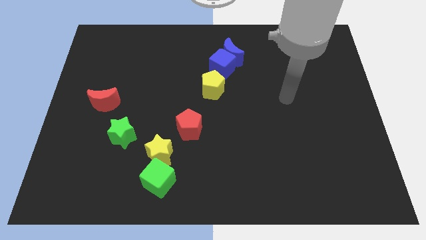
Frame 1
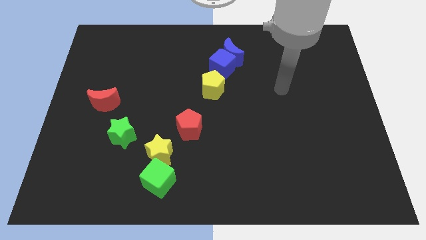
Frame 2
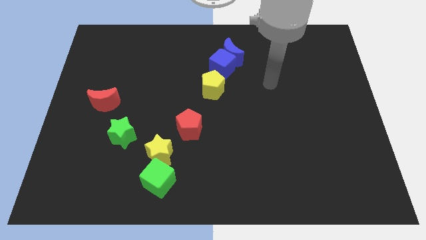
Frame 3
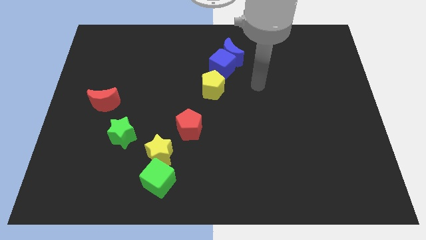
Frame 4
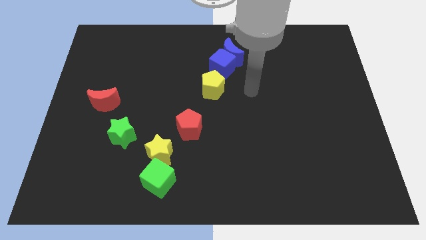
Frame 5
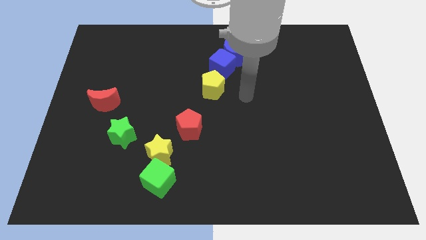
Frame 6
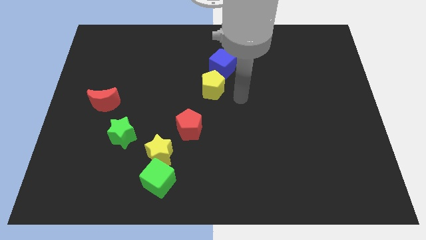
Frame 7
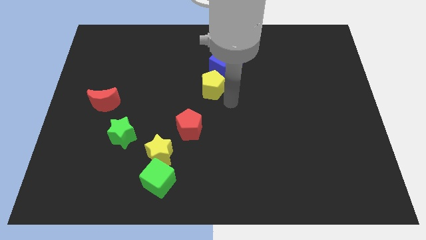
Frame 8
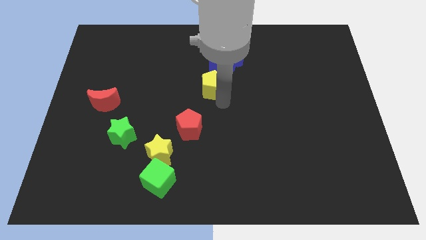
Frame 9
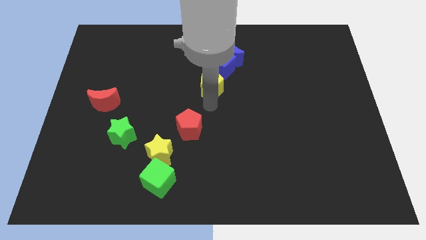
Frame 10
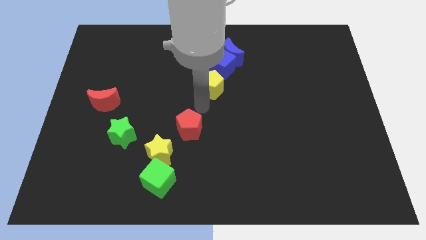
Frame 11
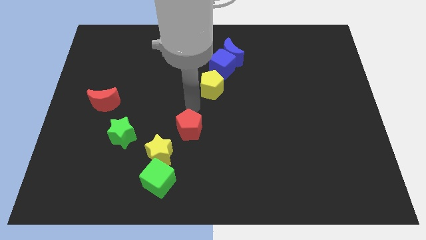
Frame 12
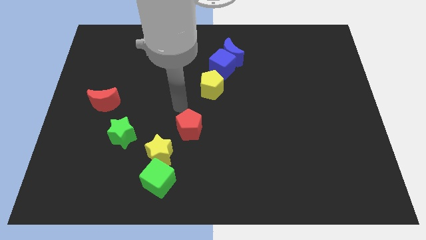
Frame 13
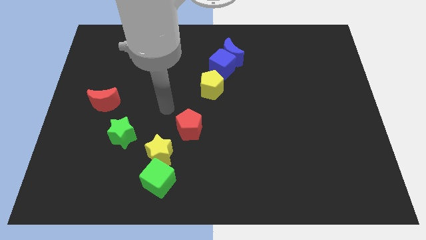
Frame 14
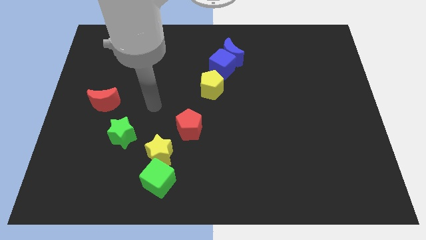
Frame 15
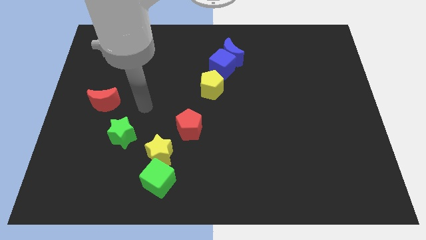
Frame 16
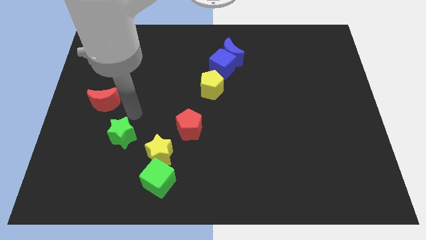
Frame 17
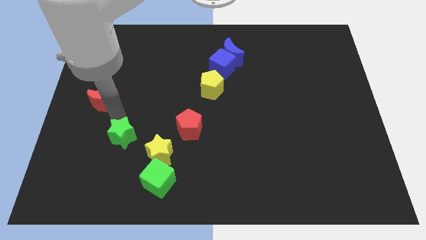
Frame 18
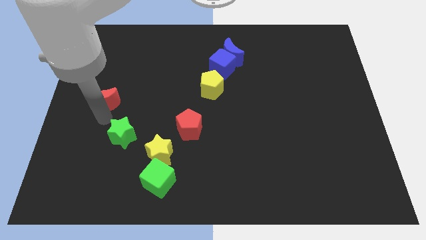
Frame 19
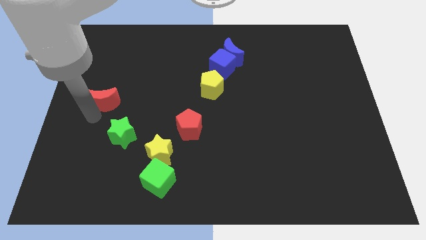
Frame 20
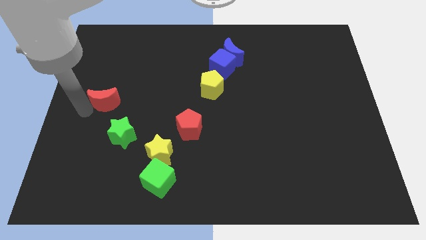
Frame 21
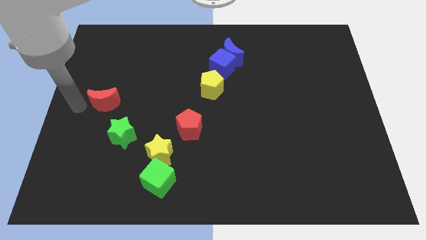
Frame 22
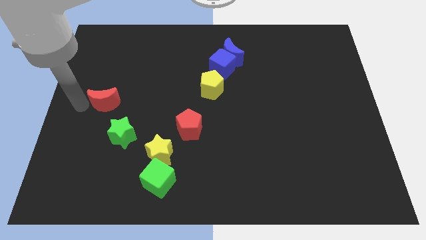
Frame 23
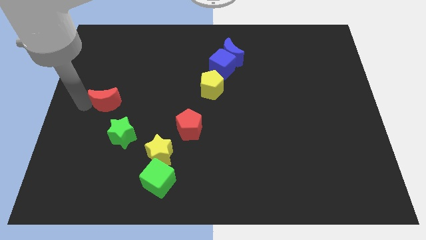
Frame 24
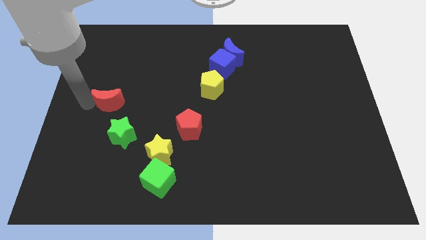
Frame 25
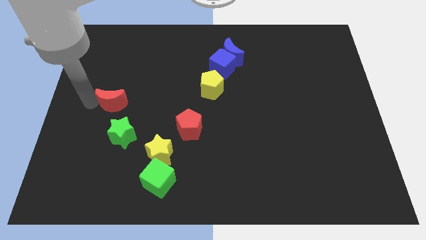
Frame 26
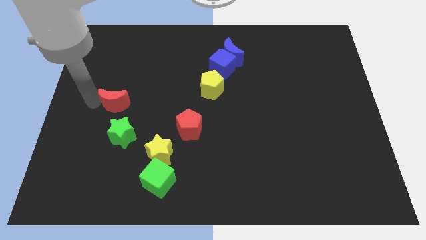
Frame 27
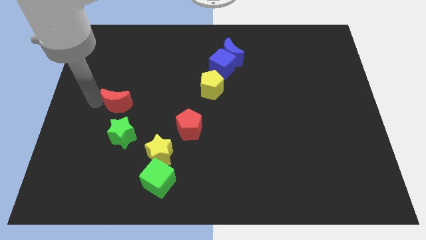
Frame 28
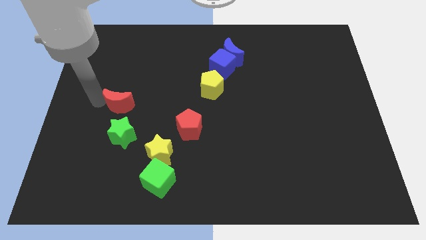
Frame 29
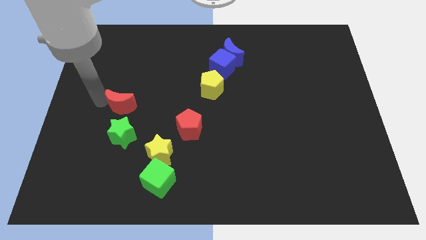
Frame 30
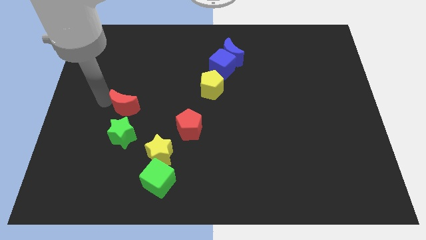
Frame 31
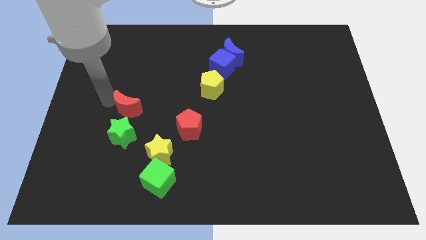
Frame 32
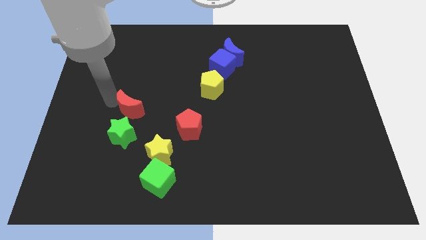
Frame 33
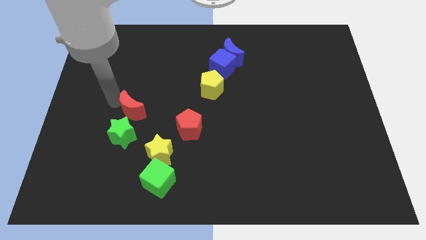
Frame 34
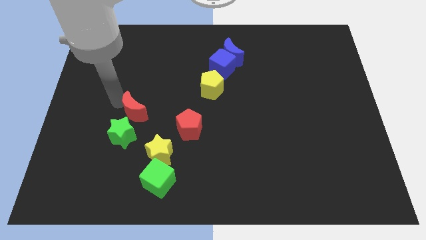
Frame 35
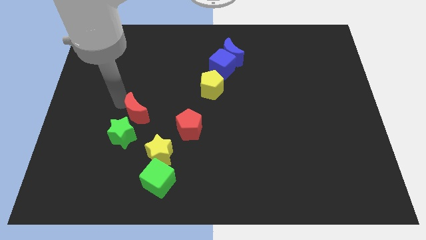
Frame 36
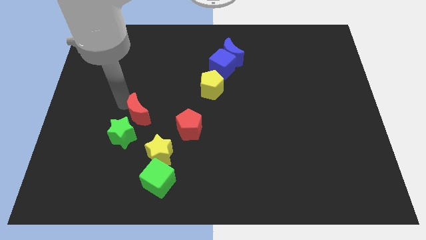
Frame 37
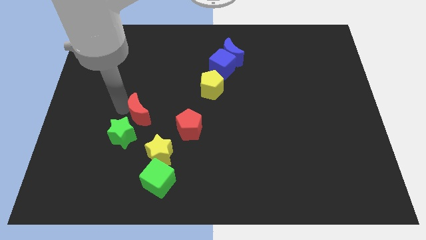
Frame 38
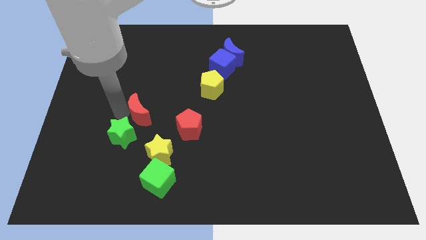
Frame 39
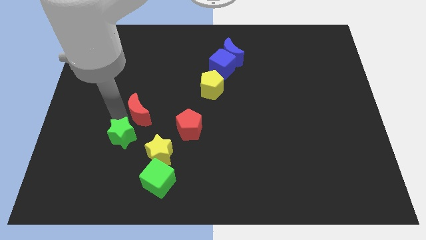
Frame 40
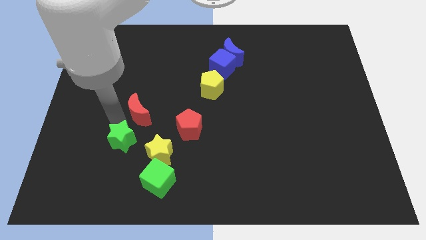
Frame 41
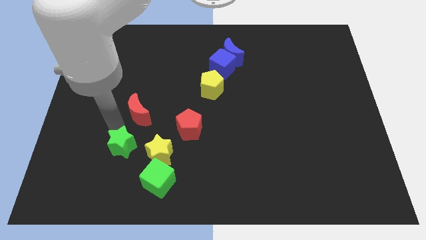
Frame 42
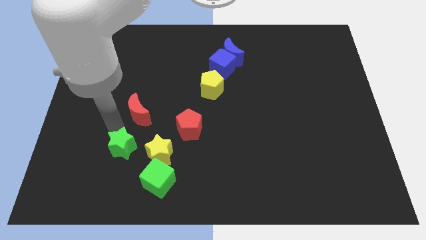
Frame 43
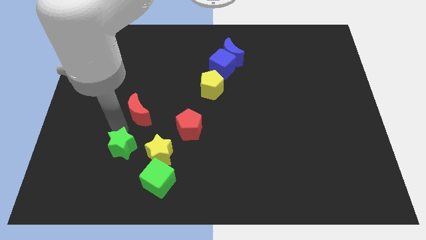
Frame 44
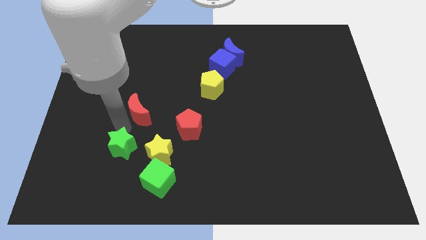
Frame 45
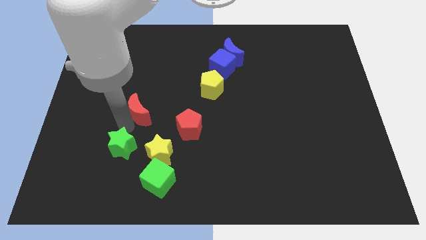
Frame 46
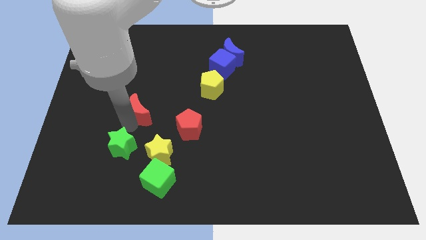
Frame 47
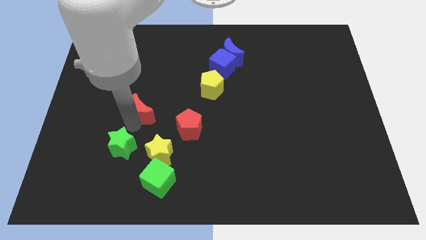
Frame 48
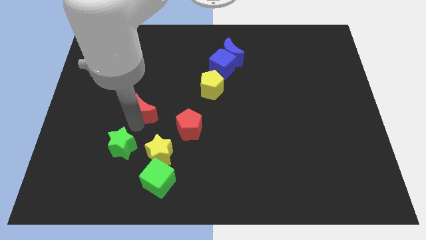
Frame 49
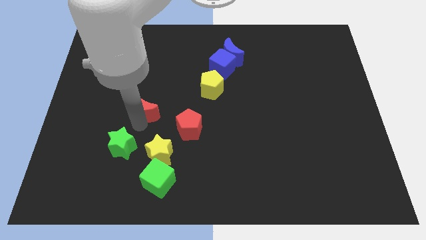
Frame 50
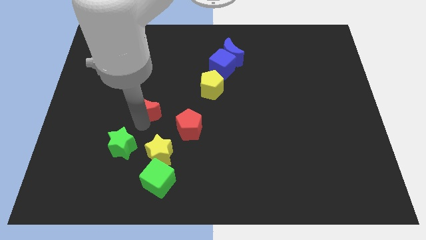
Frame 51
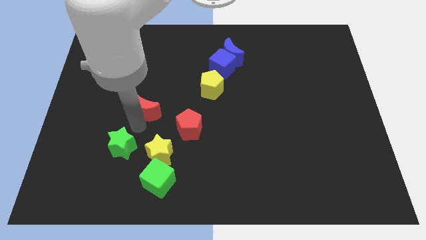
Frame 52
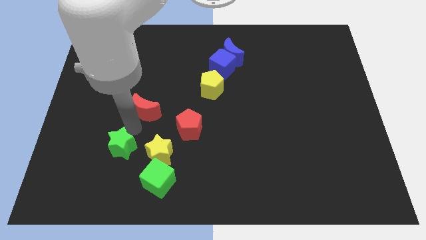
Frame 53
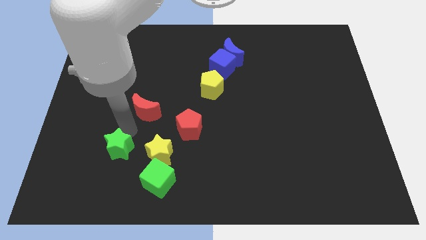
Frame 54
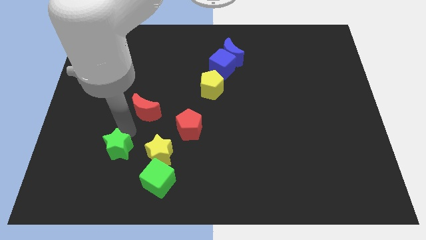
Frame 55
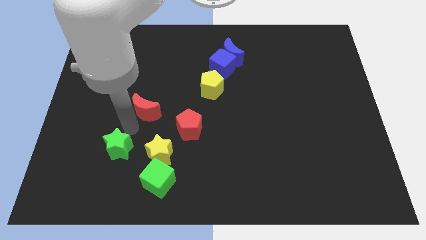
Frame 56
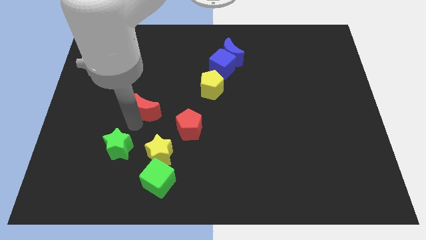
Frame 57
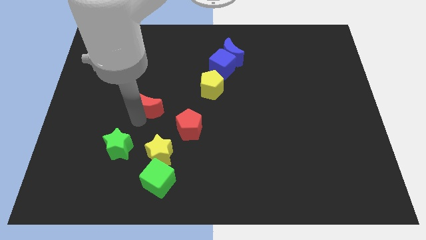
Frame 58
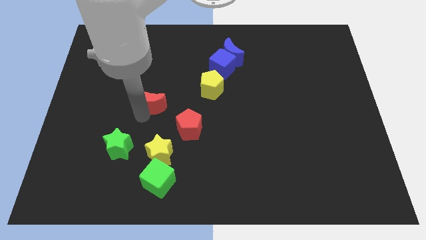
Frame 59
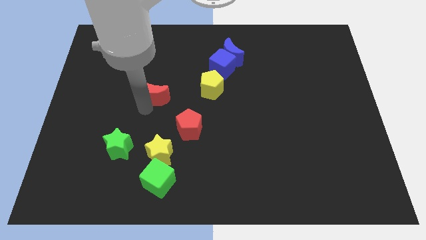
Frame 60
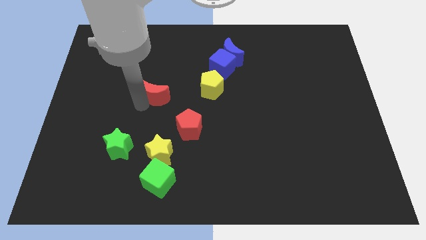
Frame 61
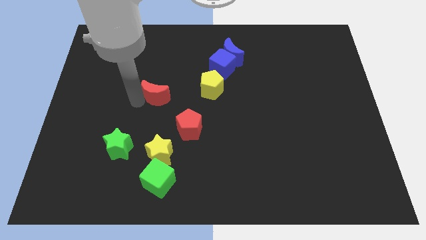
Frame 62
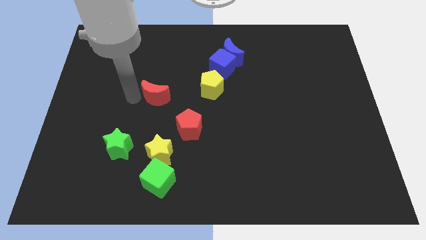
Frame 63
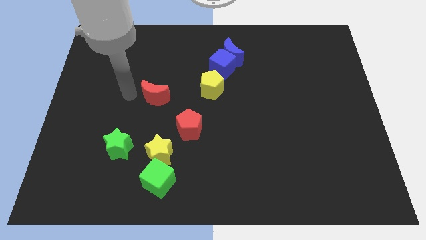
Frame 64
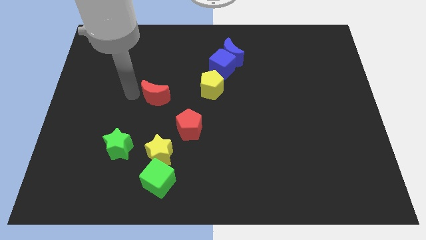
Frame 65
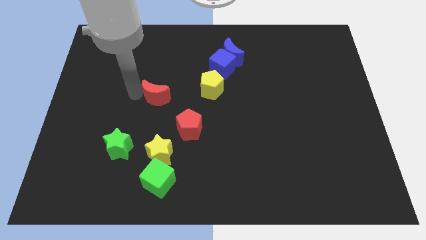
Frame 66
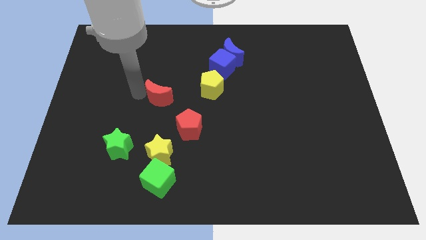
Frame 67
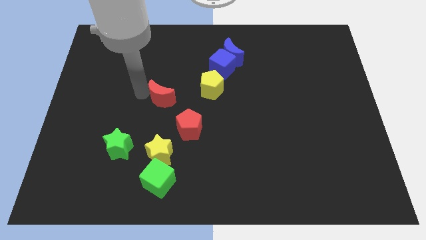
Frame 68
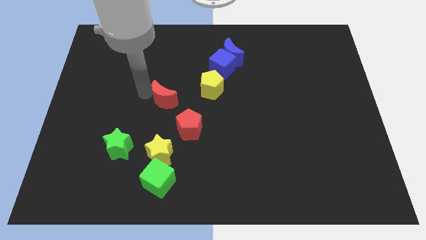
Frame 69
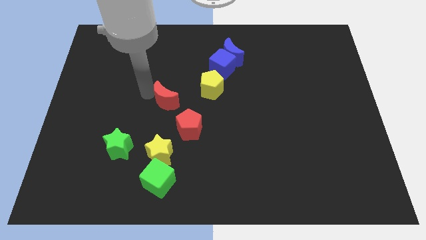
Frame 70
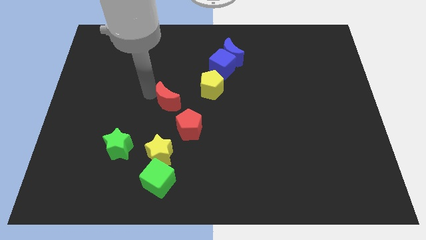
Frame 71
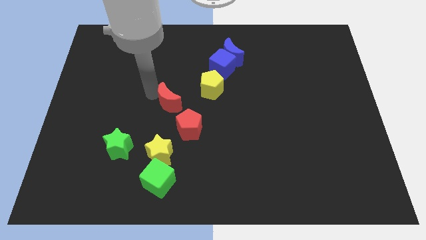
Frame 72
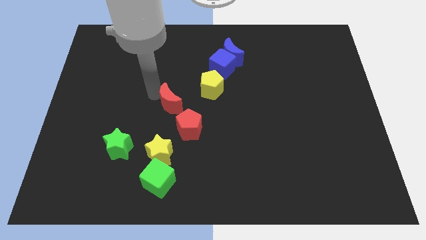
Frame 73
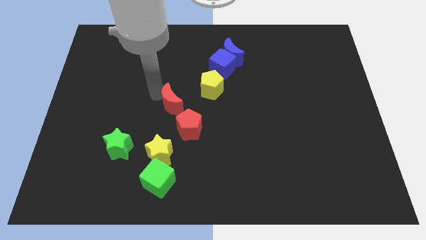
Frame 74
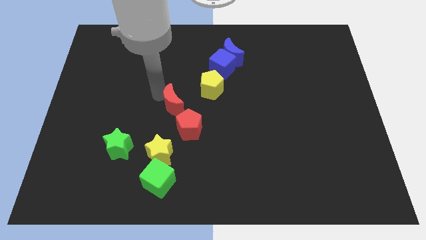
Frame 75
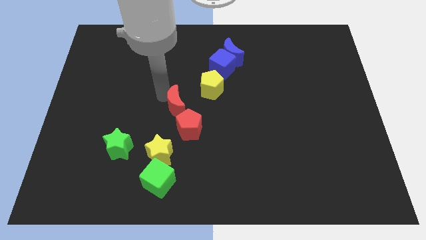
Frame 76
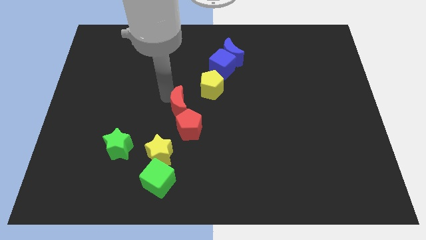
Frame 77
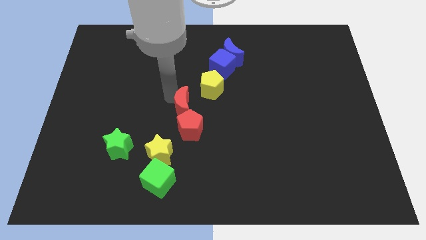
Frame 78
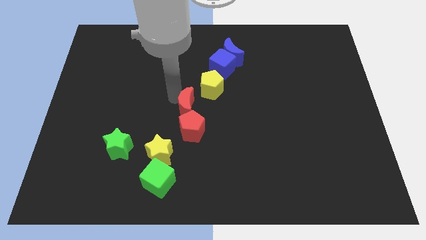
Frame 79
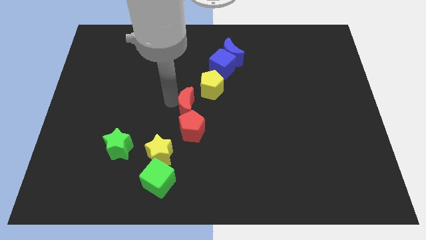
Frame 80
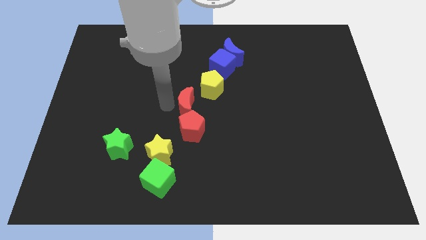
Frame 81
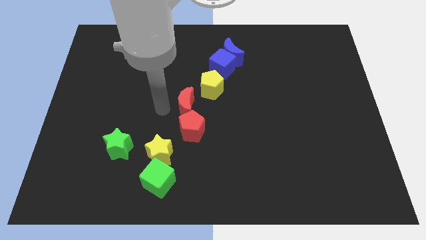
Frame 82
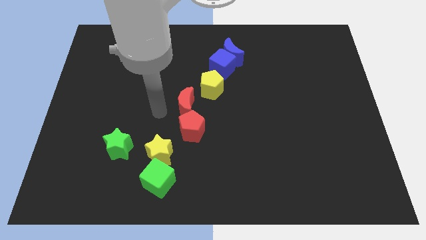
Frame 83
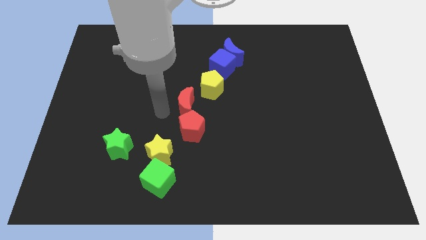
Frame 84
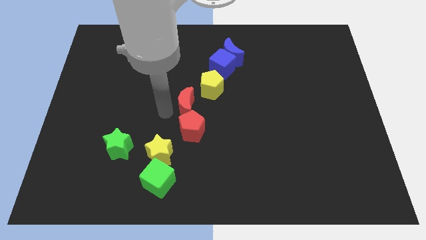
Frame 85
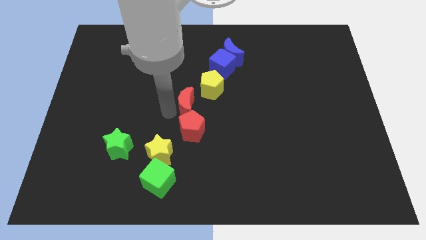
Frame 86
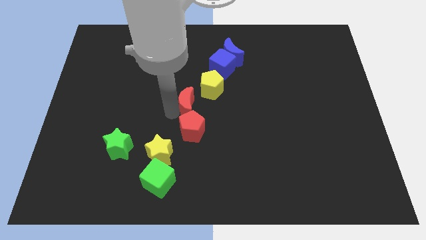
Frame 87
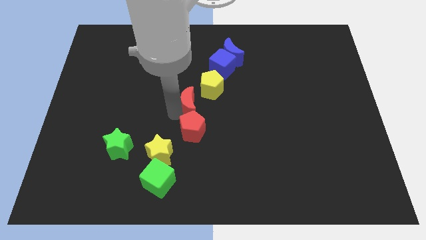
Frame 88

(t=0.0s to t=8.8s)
move the red moon right
